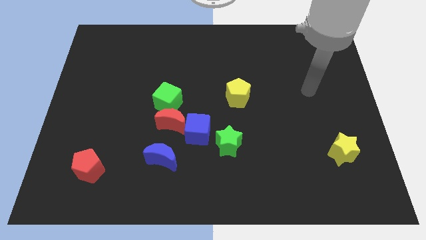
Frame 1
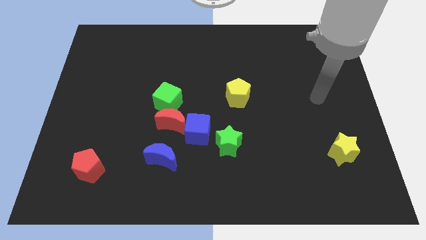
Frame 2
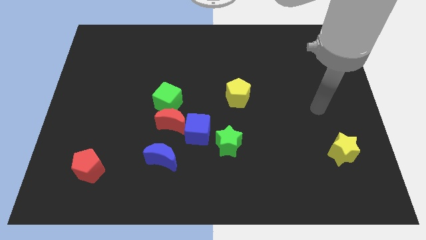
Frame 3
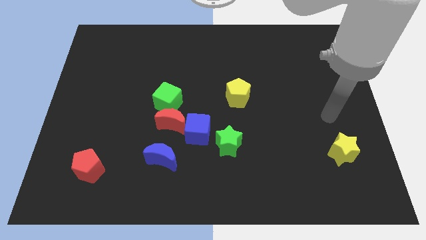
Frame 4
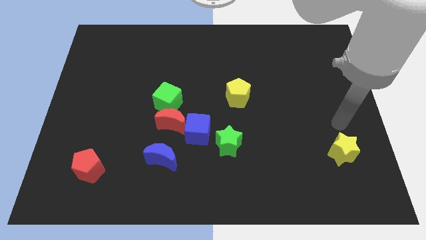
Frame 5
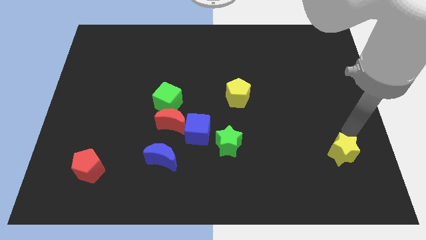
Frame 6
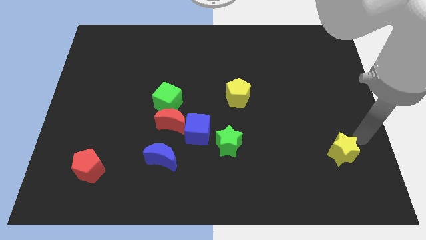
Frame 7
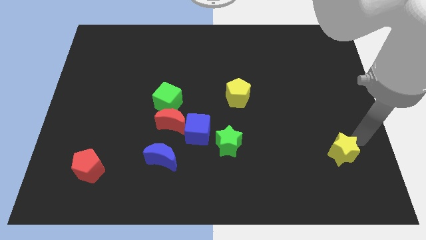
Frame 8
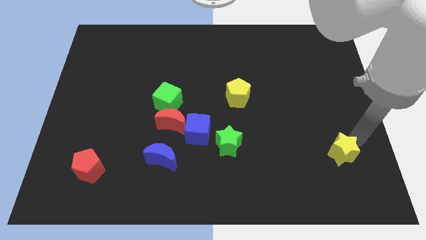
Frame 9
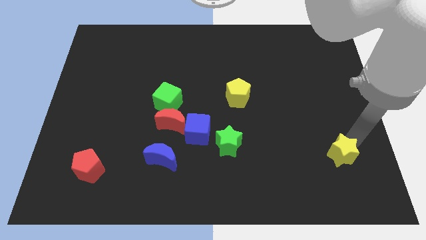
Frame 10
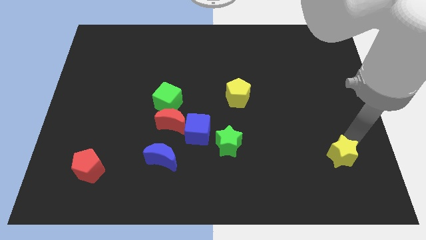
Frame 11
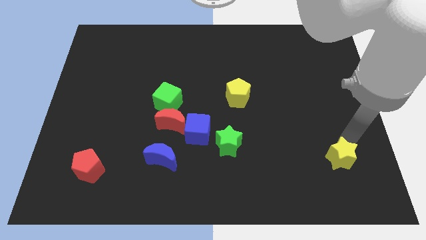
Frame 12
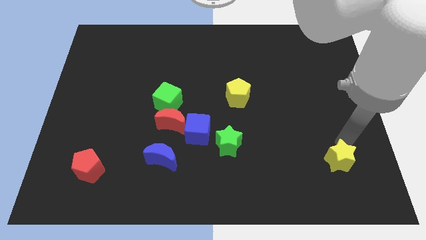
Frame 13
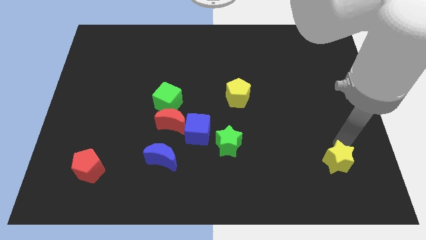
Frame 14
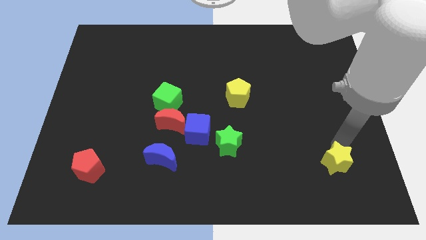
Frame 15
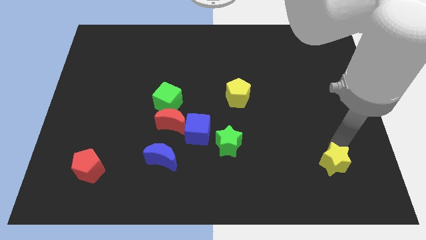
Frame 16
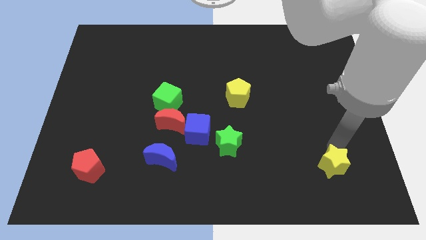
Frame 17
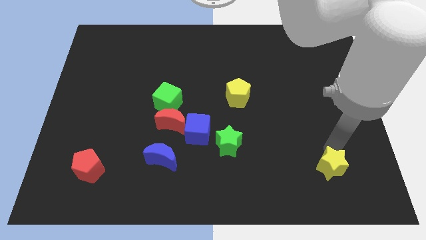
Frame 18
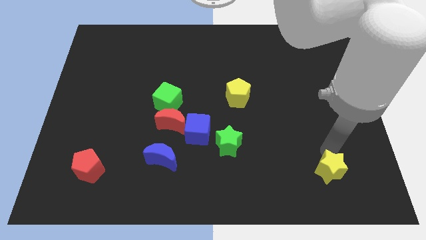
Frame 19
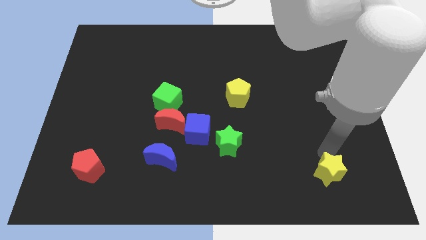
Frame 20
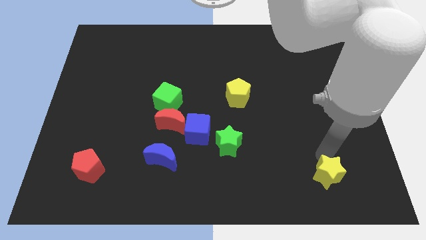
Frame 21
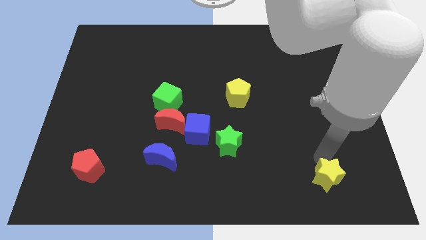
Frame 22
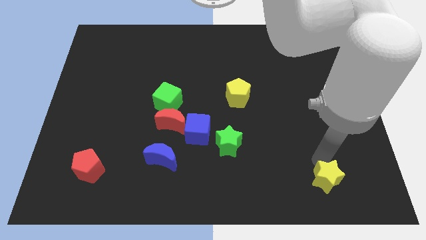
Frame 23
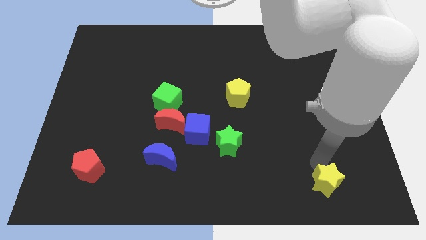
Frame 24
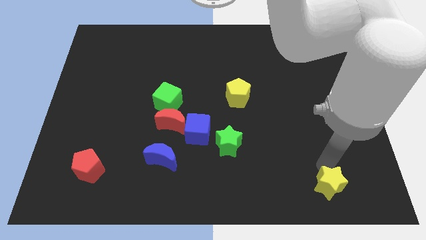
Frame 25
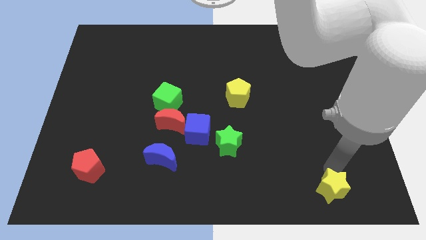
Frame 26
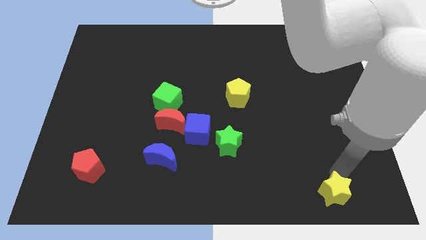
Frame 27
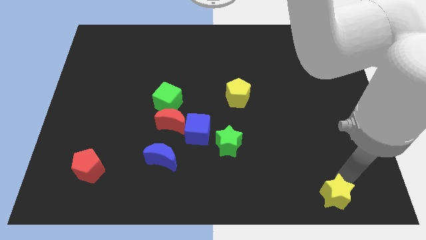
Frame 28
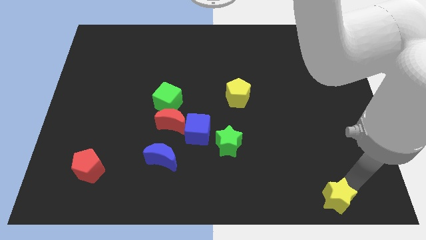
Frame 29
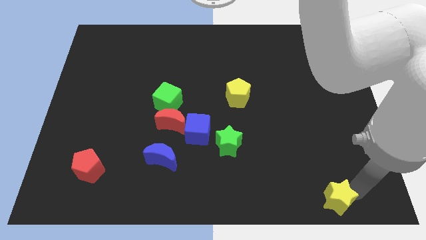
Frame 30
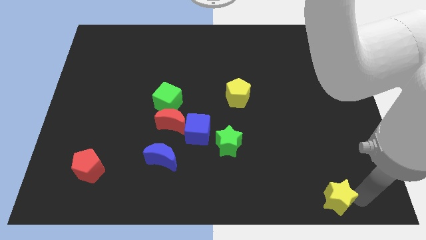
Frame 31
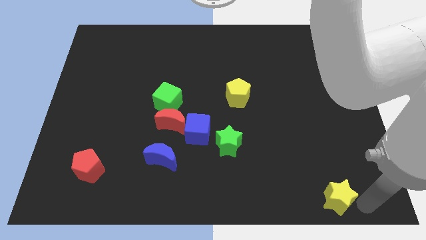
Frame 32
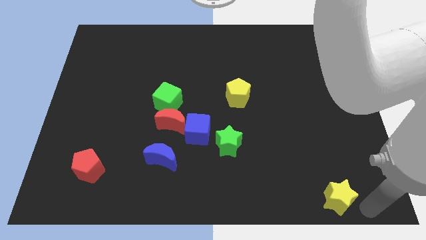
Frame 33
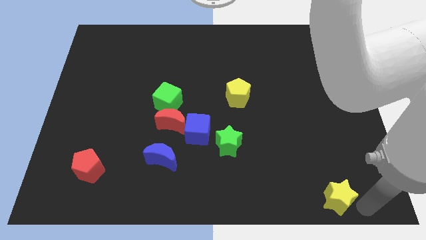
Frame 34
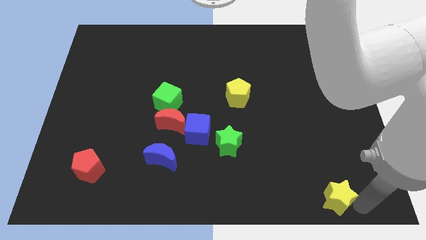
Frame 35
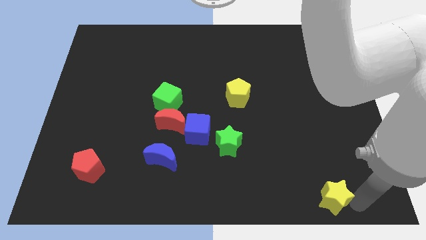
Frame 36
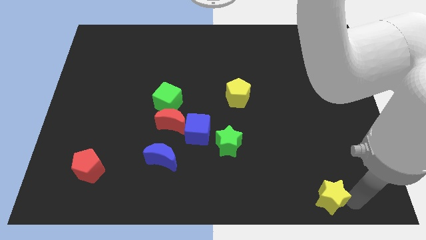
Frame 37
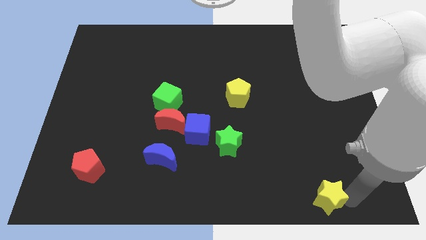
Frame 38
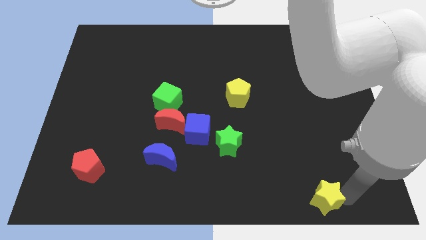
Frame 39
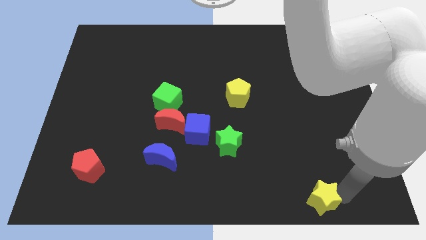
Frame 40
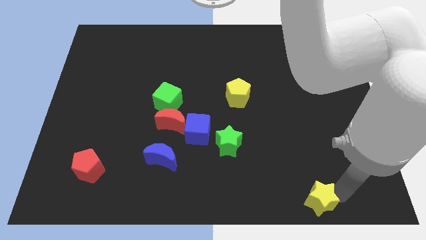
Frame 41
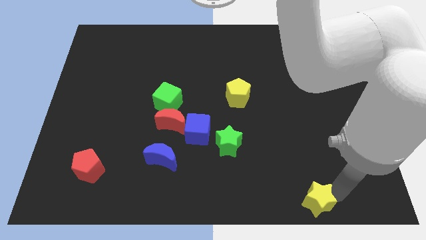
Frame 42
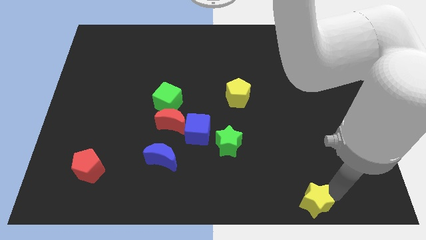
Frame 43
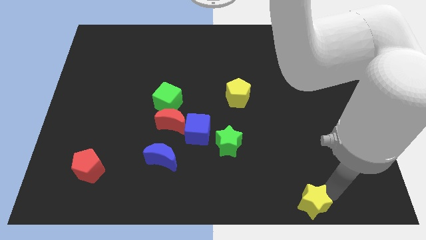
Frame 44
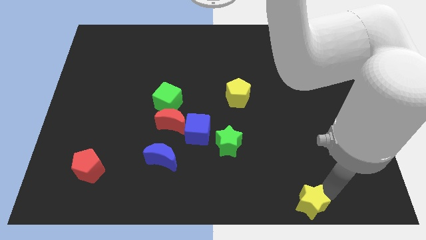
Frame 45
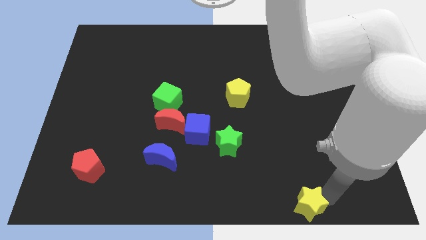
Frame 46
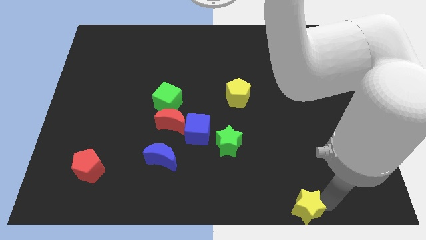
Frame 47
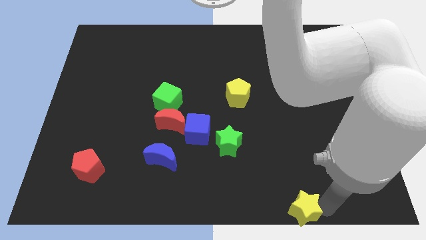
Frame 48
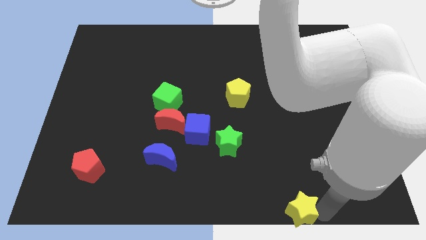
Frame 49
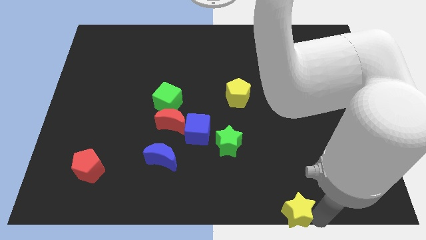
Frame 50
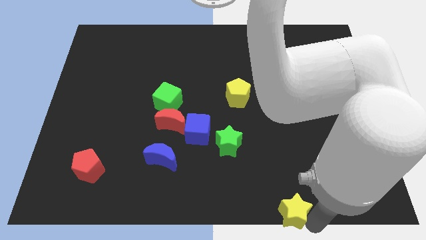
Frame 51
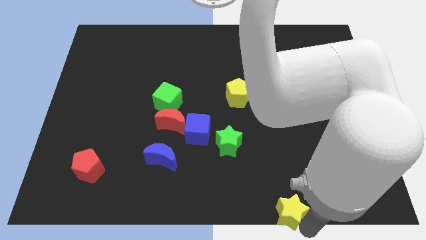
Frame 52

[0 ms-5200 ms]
move the yellow star to the bottom

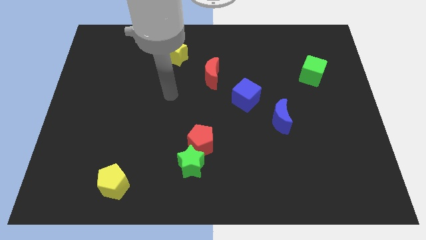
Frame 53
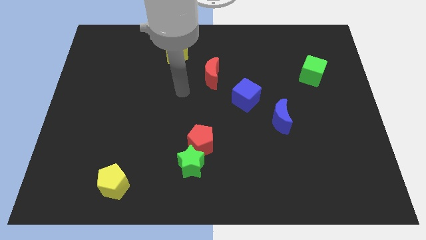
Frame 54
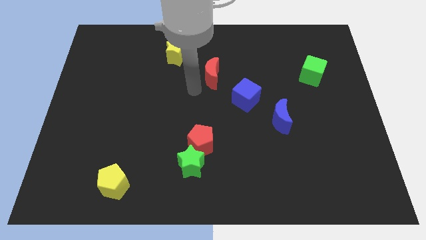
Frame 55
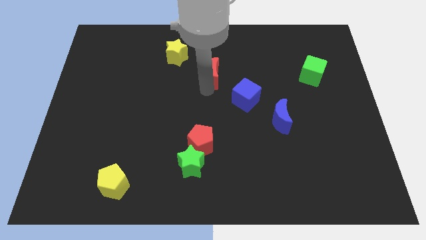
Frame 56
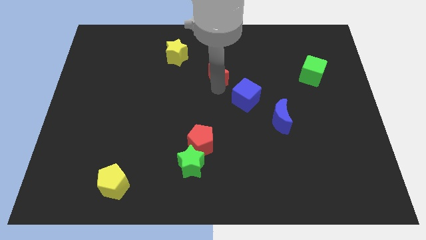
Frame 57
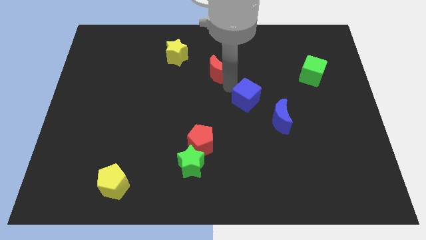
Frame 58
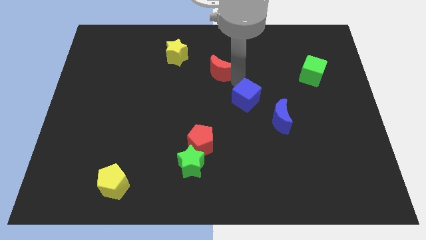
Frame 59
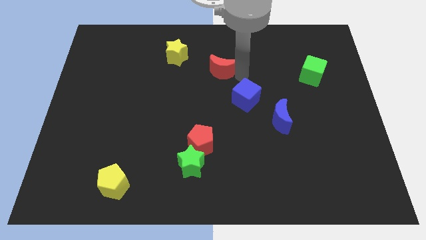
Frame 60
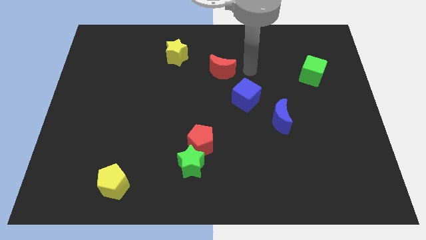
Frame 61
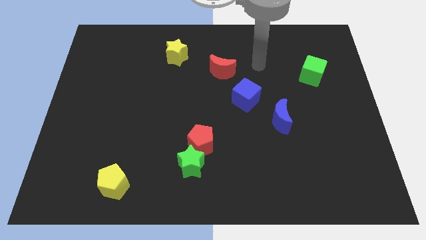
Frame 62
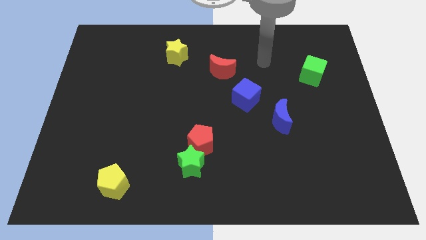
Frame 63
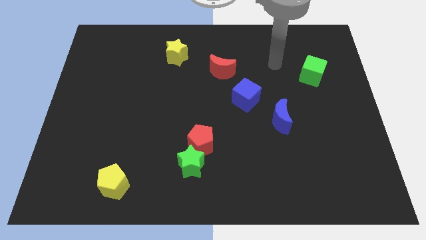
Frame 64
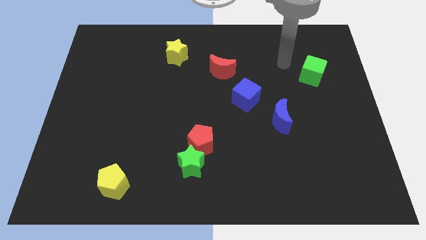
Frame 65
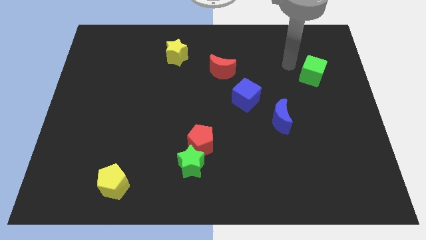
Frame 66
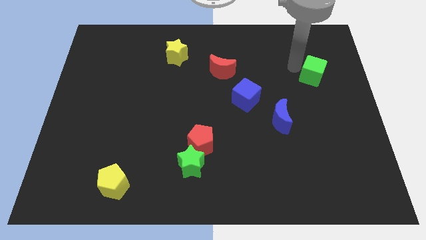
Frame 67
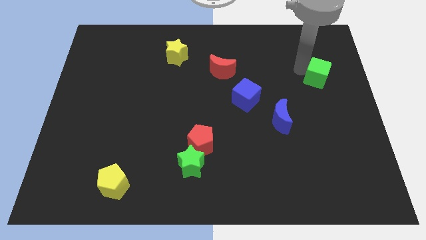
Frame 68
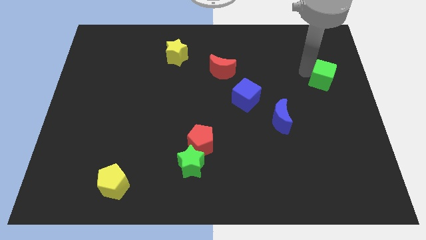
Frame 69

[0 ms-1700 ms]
slide the green cube to the right side
